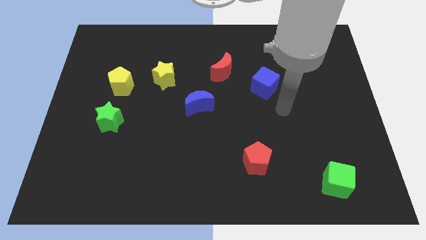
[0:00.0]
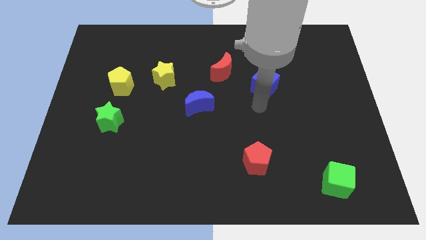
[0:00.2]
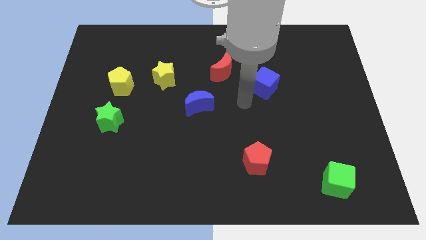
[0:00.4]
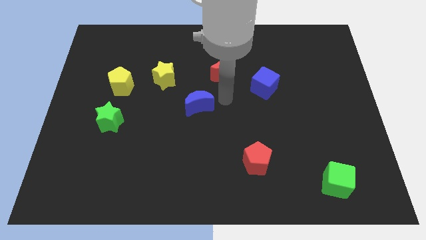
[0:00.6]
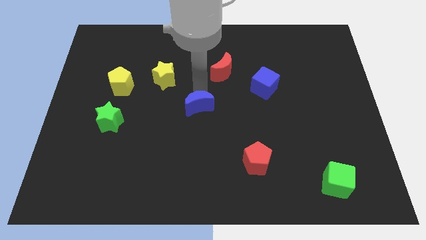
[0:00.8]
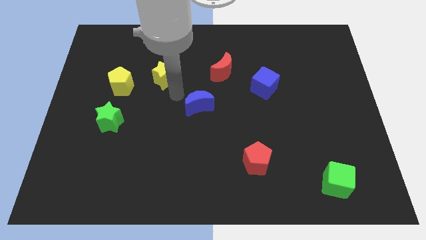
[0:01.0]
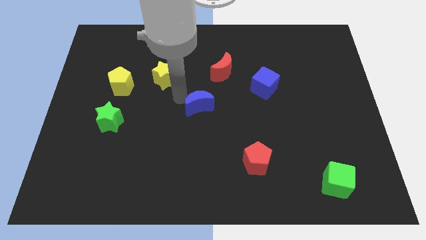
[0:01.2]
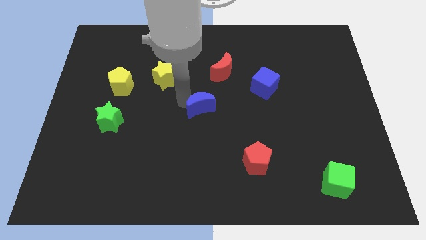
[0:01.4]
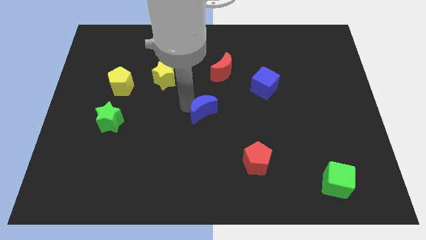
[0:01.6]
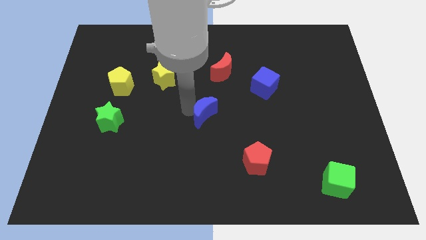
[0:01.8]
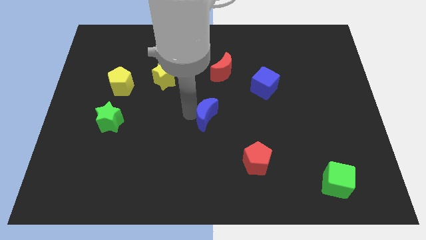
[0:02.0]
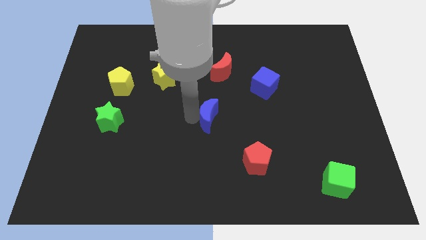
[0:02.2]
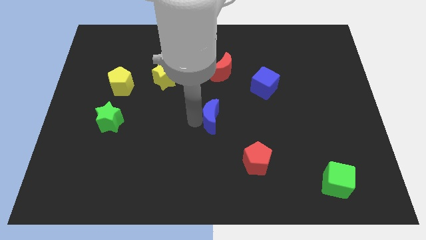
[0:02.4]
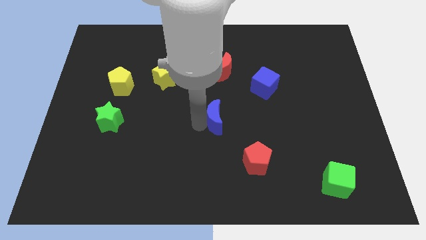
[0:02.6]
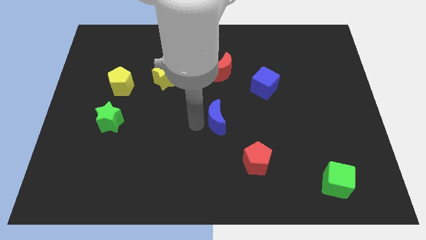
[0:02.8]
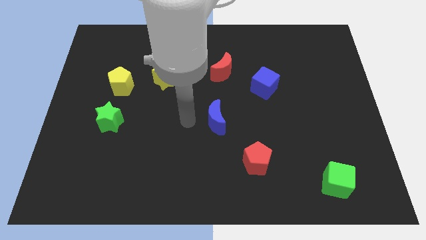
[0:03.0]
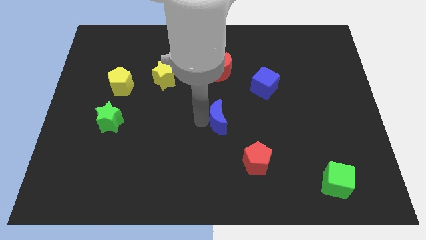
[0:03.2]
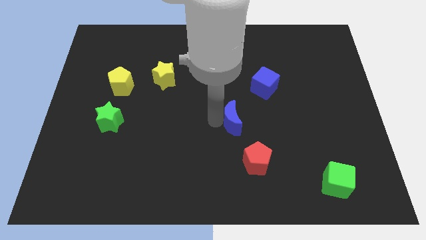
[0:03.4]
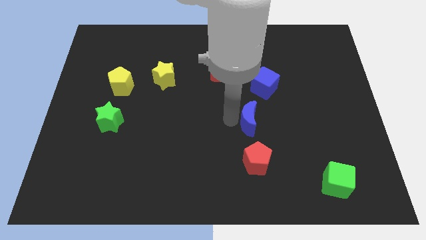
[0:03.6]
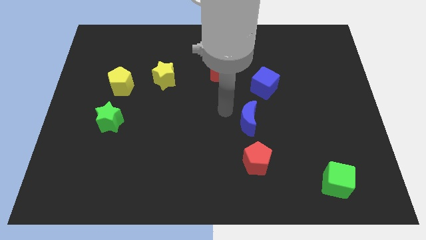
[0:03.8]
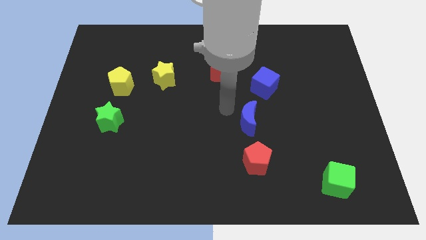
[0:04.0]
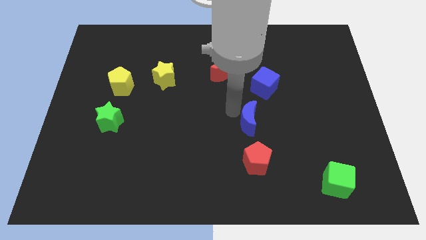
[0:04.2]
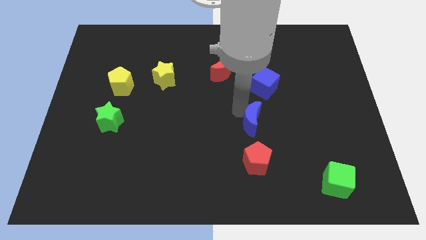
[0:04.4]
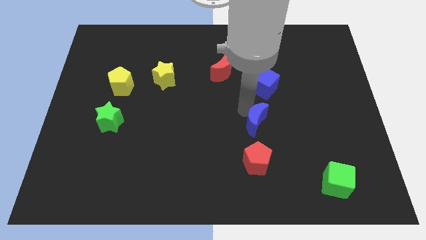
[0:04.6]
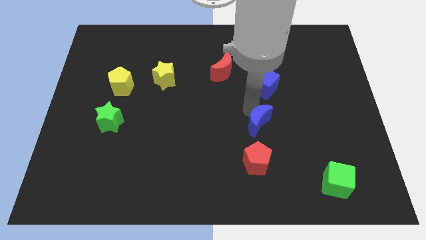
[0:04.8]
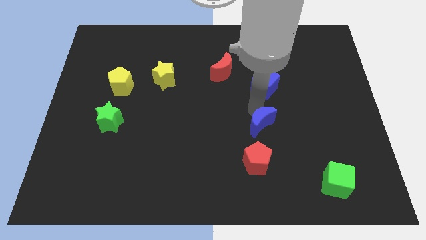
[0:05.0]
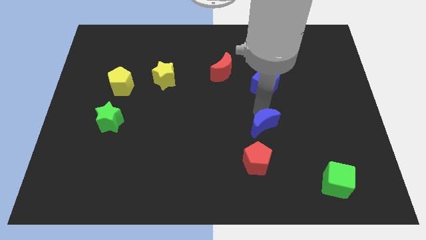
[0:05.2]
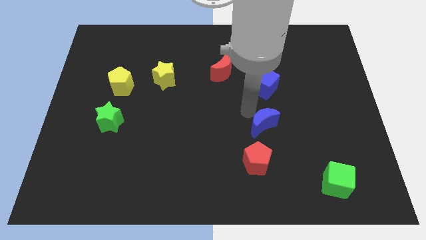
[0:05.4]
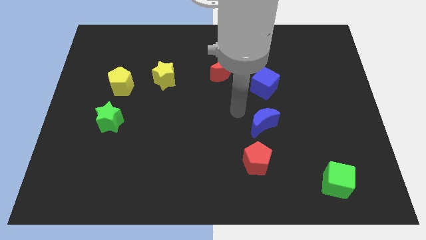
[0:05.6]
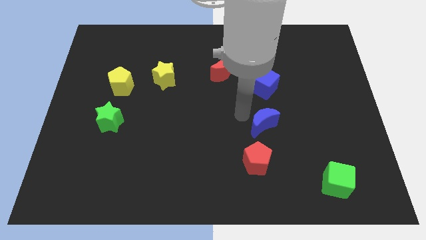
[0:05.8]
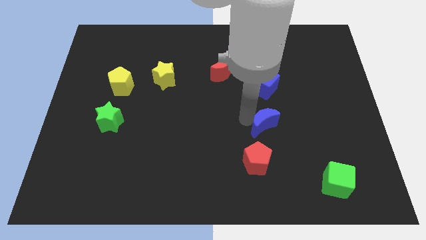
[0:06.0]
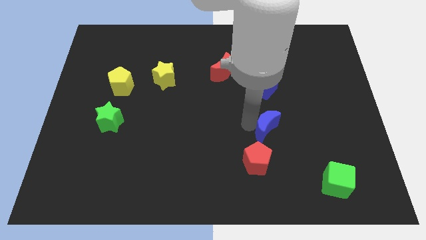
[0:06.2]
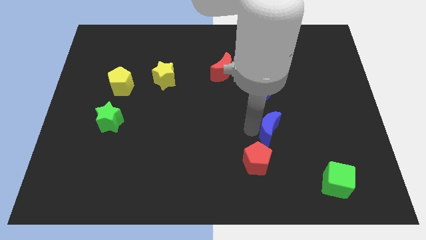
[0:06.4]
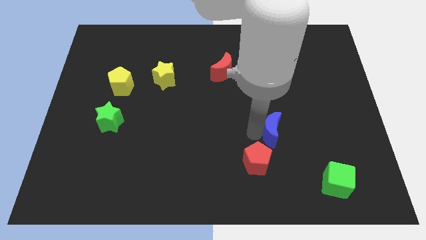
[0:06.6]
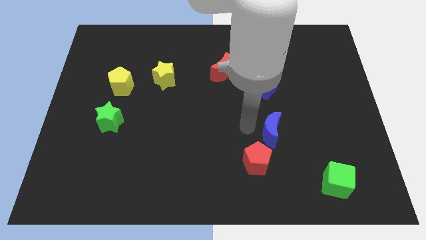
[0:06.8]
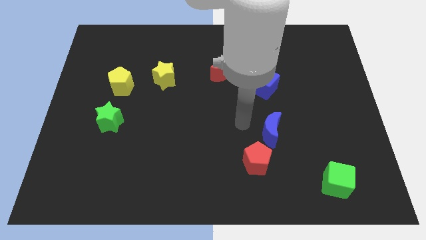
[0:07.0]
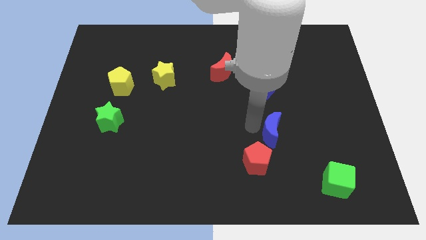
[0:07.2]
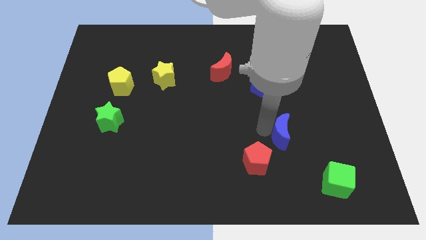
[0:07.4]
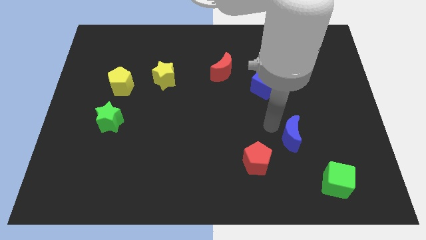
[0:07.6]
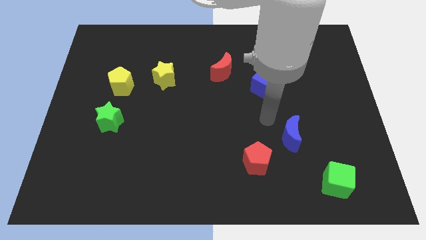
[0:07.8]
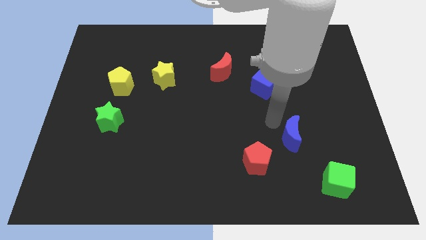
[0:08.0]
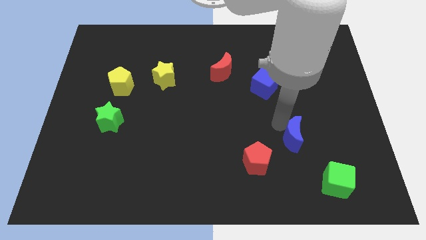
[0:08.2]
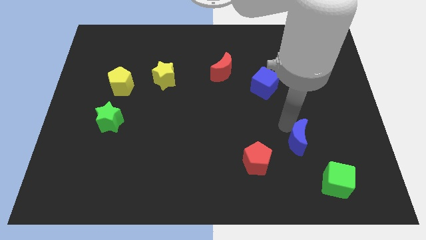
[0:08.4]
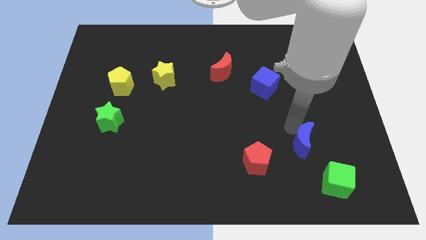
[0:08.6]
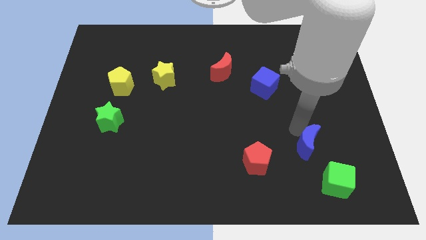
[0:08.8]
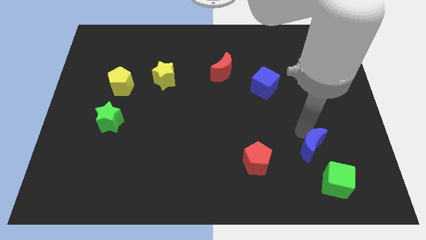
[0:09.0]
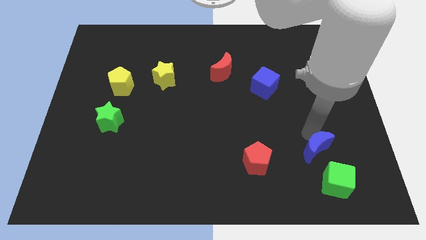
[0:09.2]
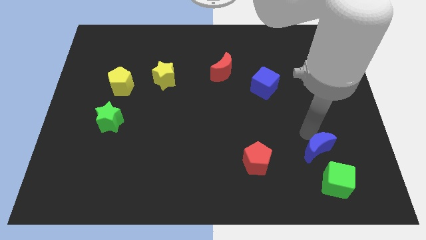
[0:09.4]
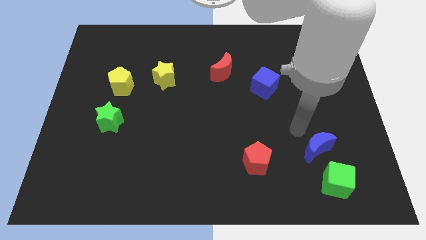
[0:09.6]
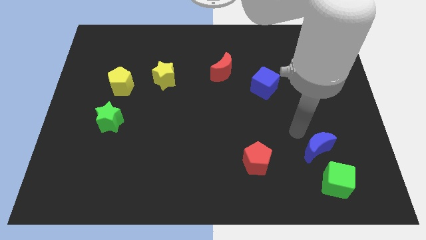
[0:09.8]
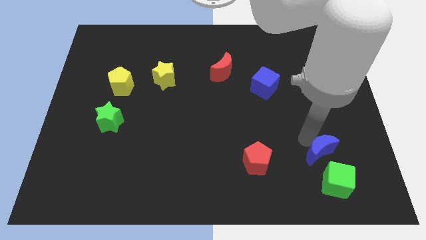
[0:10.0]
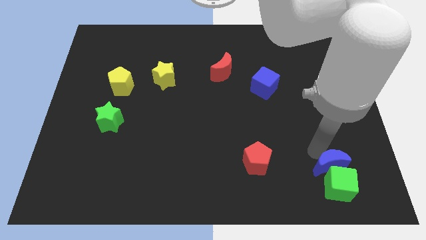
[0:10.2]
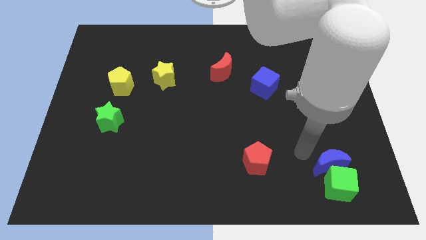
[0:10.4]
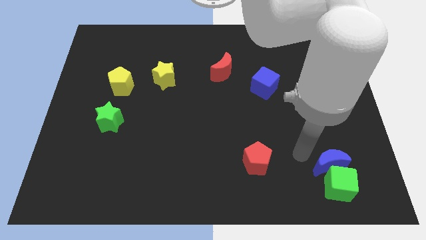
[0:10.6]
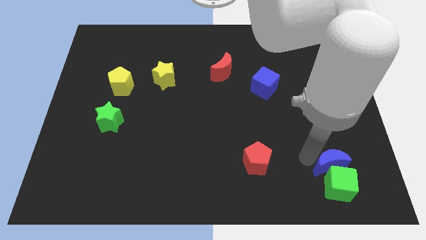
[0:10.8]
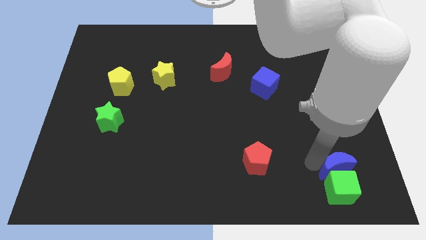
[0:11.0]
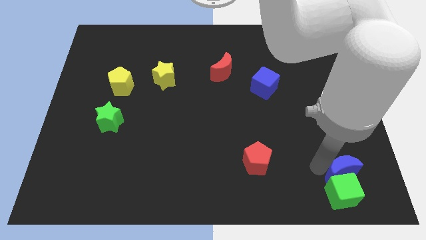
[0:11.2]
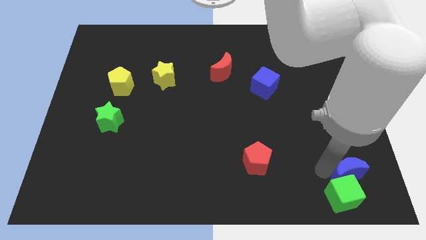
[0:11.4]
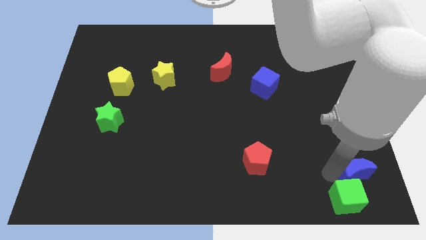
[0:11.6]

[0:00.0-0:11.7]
put the blue moon to the bottom right of the board

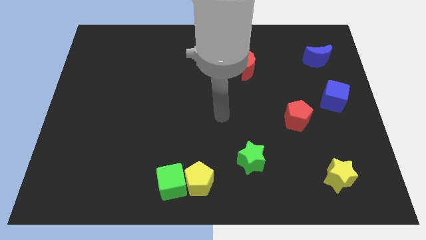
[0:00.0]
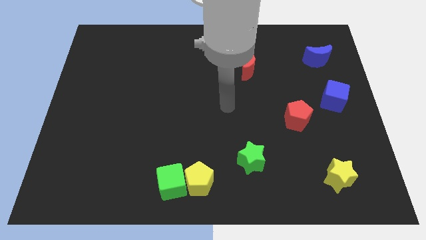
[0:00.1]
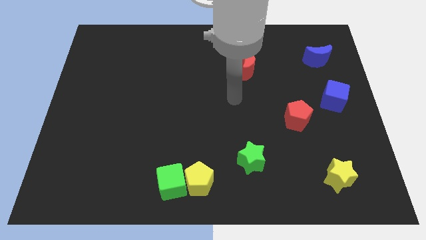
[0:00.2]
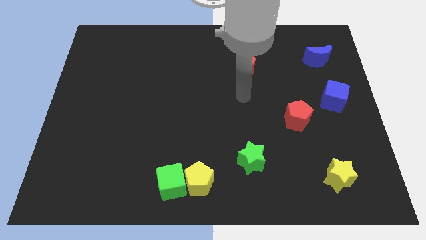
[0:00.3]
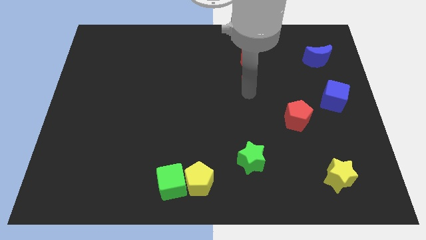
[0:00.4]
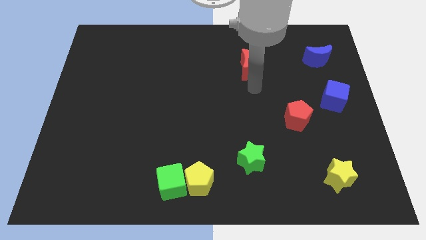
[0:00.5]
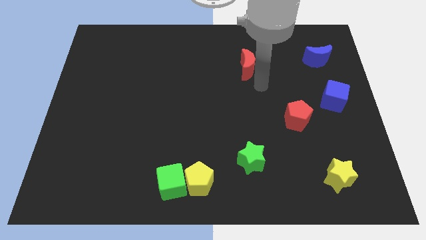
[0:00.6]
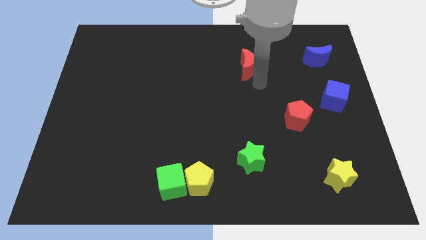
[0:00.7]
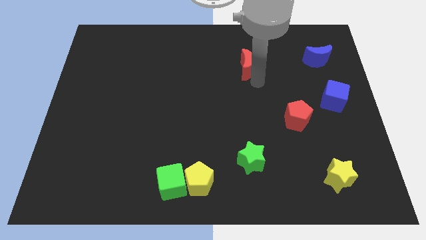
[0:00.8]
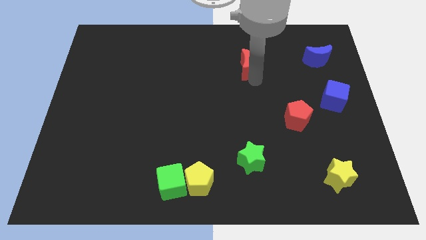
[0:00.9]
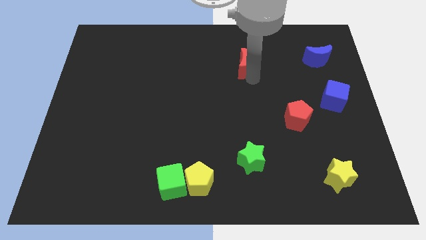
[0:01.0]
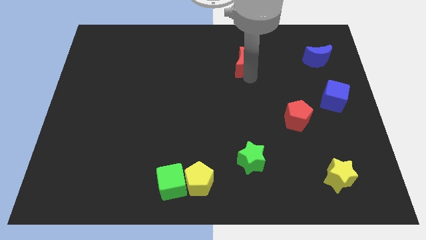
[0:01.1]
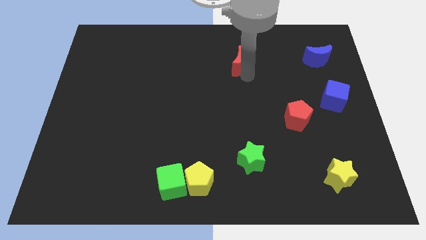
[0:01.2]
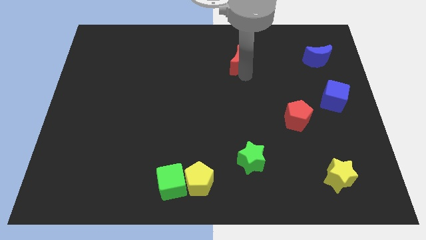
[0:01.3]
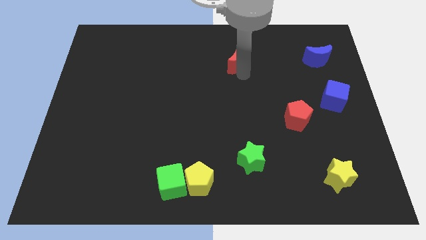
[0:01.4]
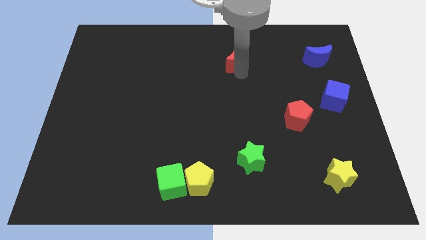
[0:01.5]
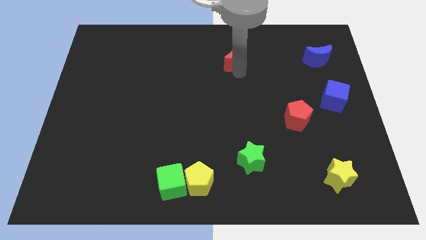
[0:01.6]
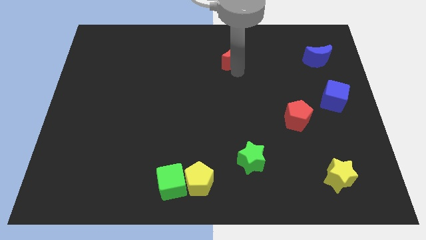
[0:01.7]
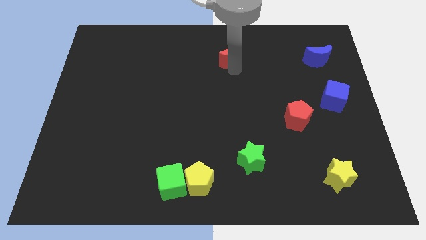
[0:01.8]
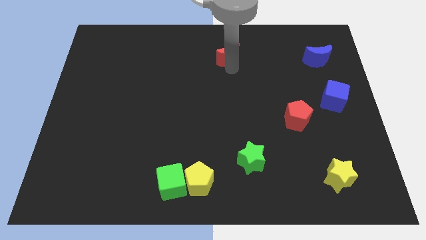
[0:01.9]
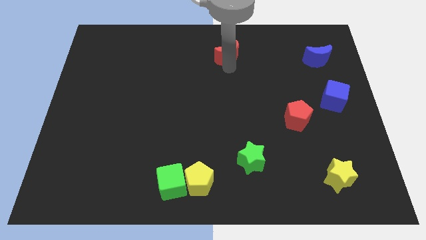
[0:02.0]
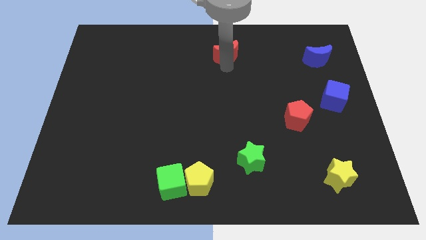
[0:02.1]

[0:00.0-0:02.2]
slide the red moon to the top

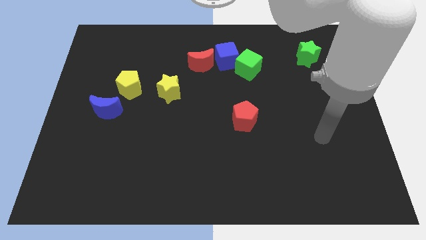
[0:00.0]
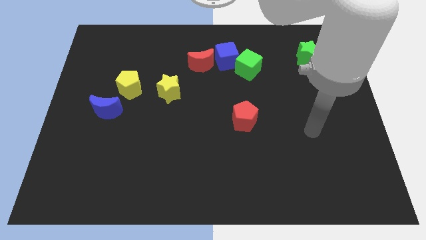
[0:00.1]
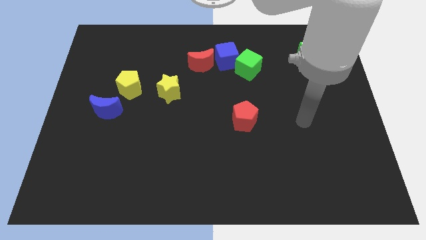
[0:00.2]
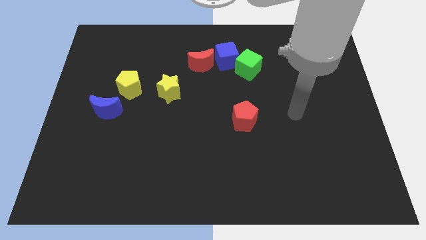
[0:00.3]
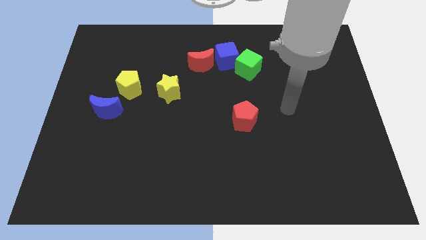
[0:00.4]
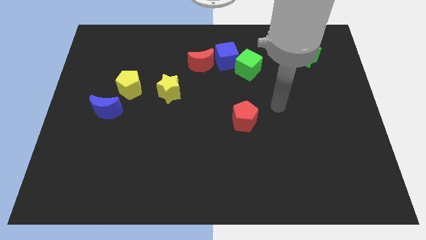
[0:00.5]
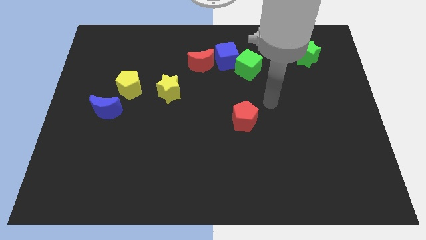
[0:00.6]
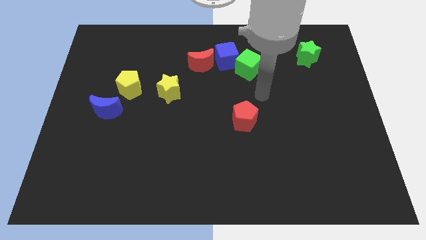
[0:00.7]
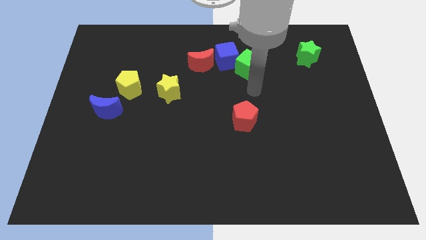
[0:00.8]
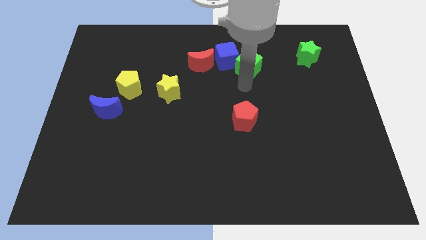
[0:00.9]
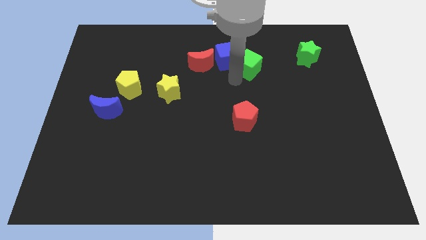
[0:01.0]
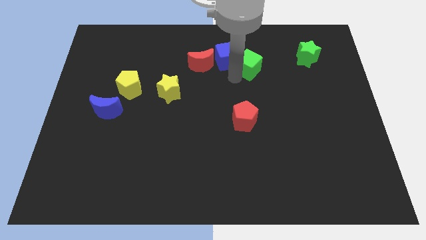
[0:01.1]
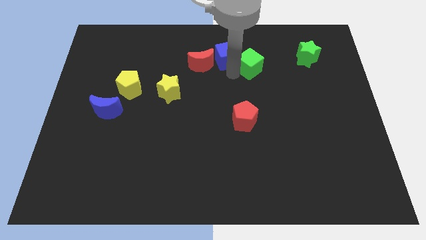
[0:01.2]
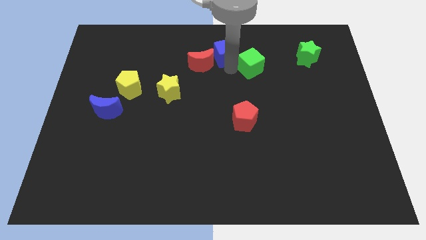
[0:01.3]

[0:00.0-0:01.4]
put the blue cube to the top side
